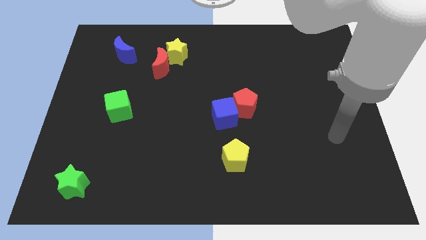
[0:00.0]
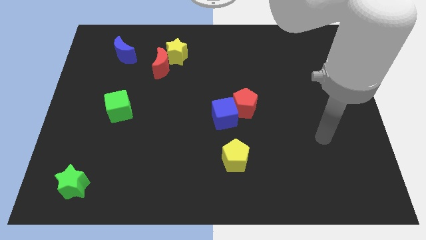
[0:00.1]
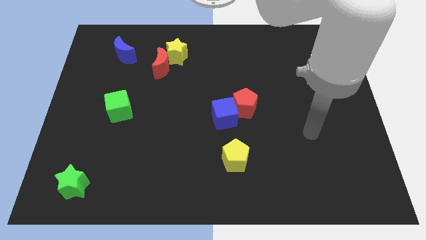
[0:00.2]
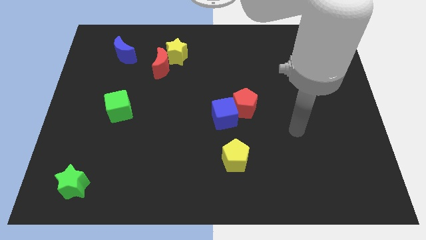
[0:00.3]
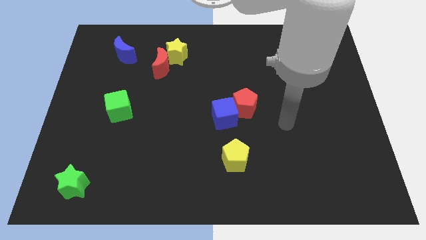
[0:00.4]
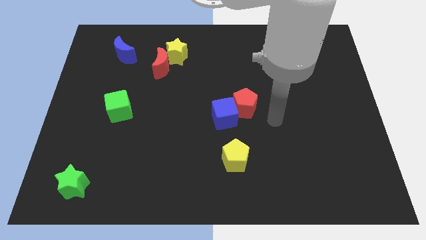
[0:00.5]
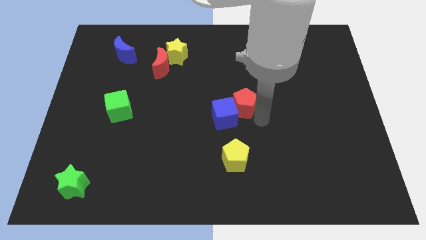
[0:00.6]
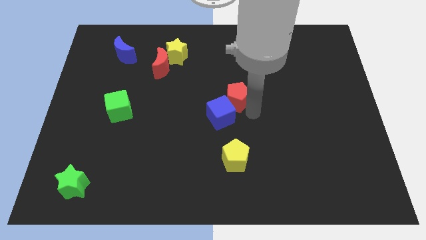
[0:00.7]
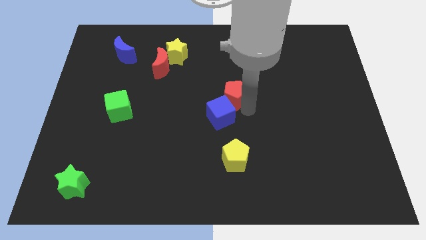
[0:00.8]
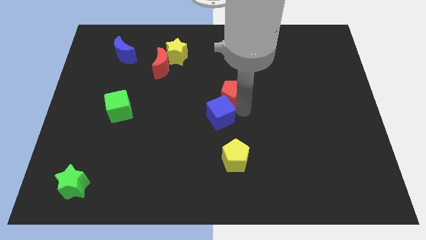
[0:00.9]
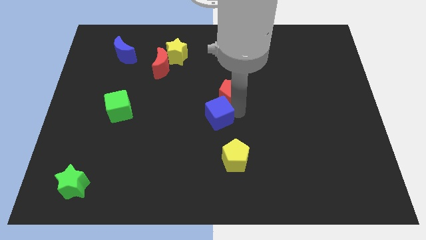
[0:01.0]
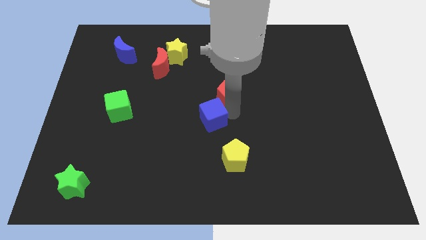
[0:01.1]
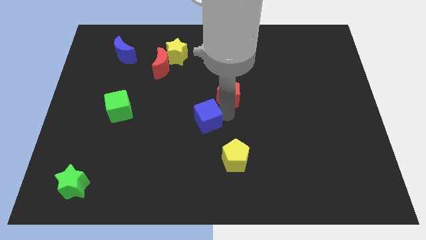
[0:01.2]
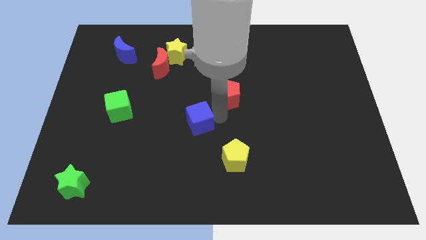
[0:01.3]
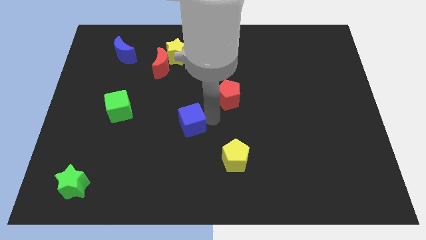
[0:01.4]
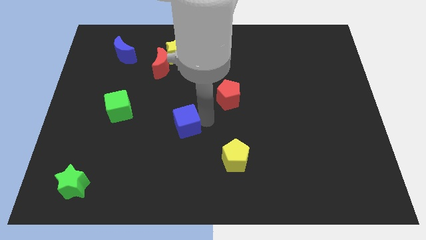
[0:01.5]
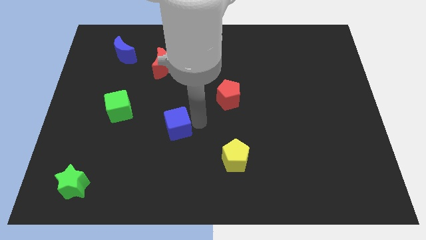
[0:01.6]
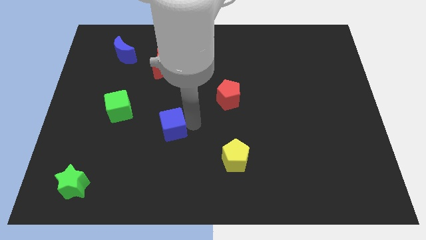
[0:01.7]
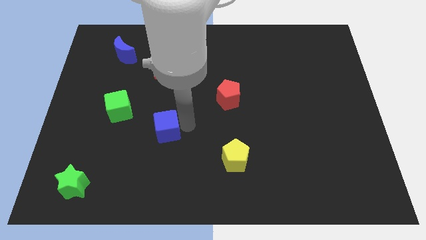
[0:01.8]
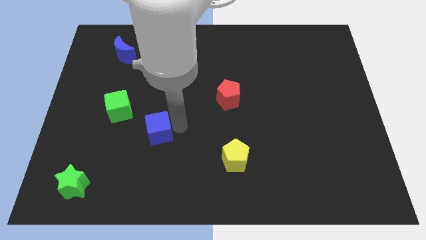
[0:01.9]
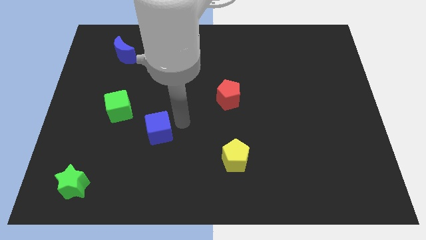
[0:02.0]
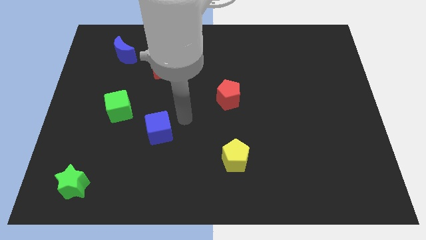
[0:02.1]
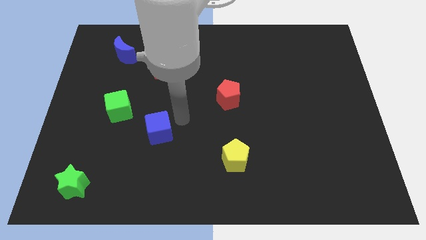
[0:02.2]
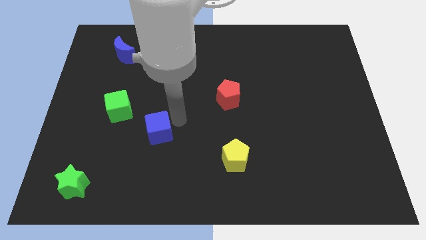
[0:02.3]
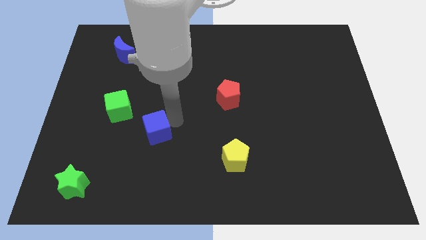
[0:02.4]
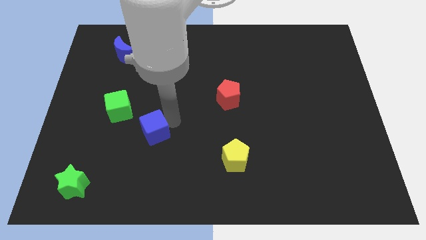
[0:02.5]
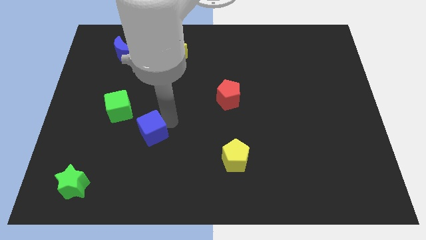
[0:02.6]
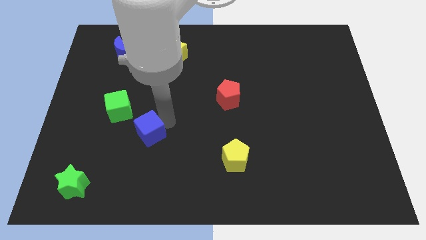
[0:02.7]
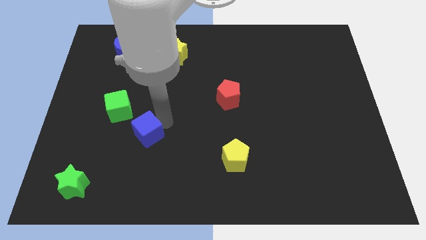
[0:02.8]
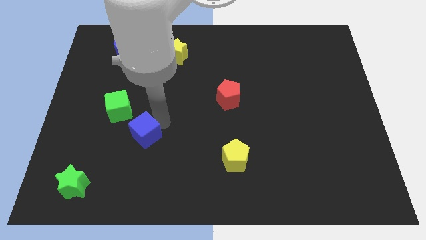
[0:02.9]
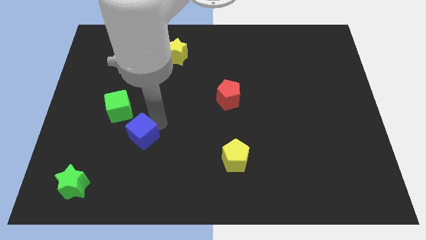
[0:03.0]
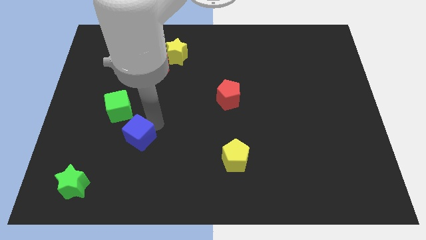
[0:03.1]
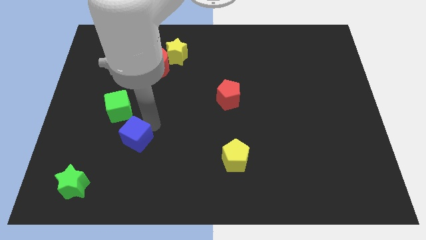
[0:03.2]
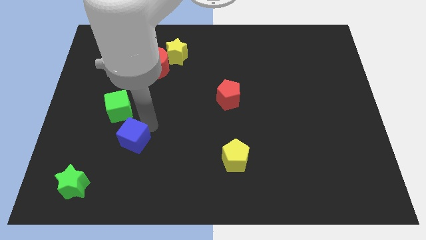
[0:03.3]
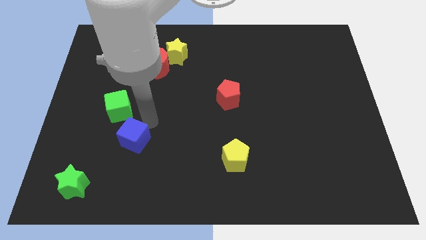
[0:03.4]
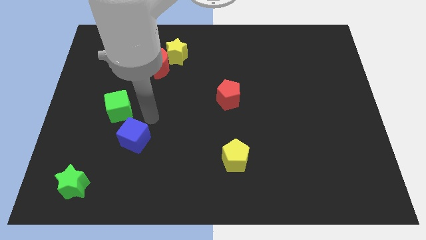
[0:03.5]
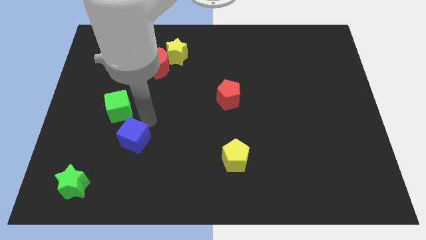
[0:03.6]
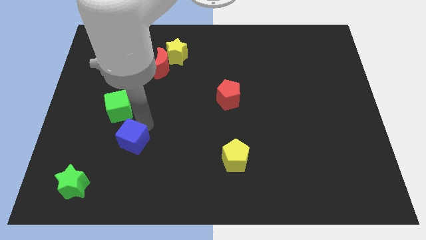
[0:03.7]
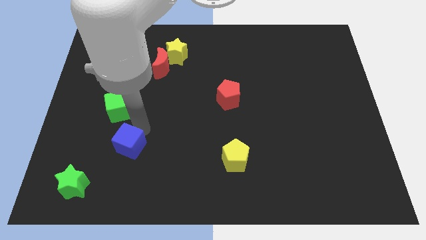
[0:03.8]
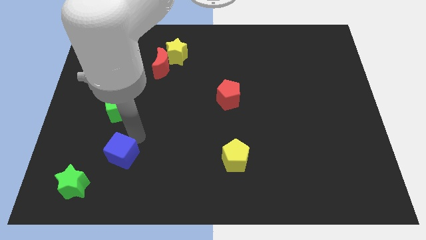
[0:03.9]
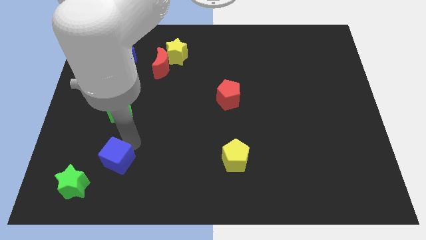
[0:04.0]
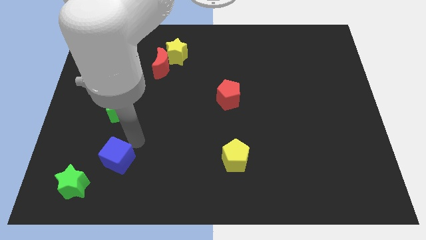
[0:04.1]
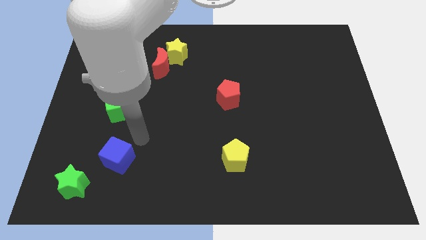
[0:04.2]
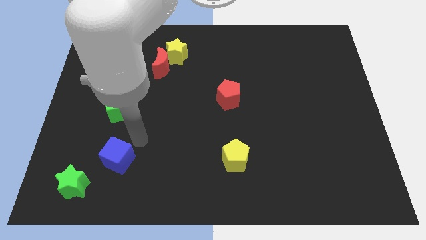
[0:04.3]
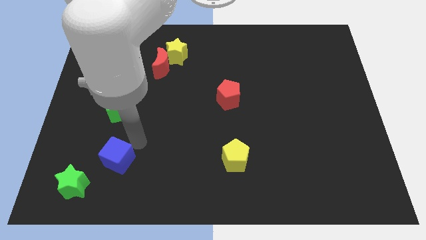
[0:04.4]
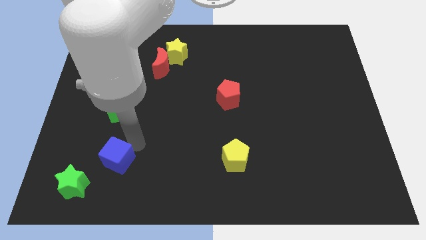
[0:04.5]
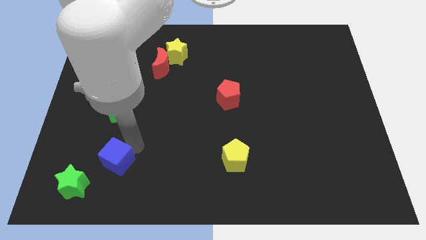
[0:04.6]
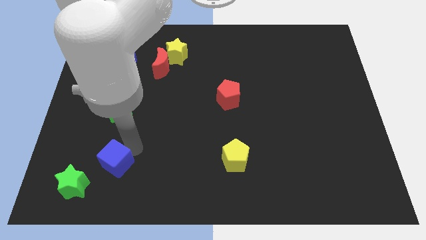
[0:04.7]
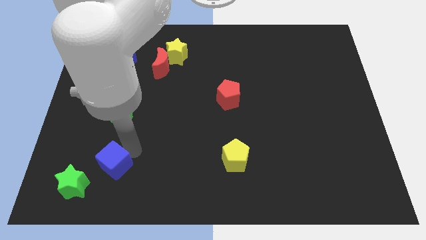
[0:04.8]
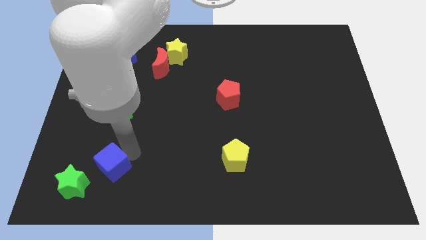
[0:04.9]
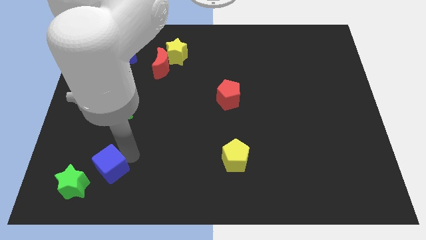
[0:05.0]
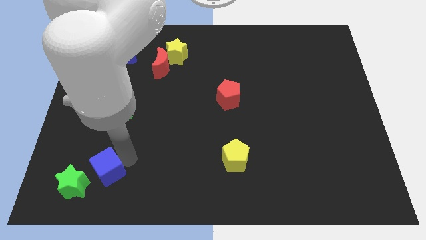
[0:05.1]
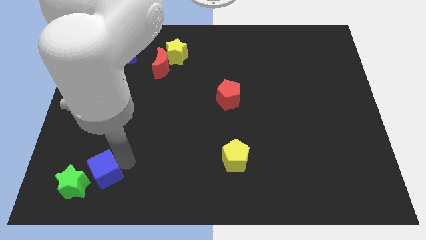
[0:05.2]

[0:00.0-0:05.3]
slide the blue cube towards the green star

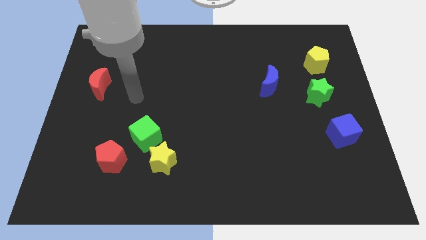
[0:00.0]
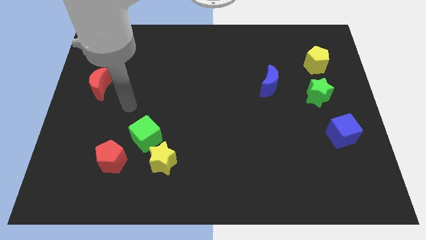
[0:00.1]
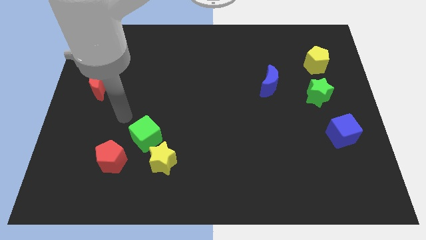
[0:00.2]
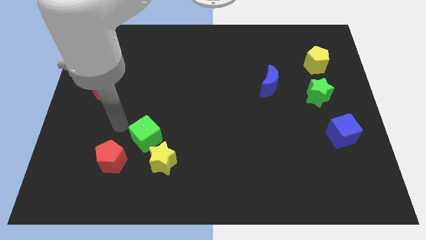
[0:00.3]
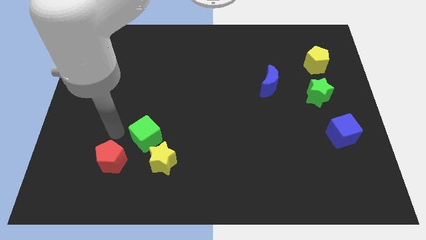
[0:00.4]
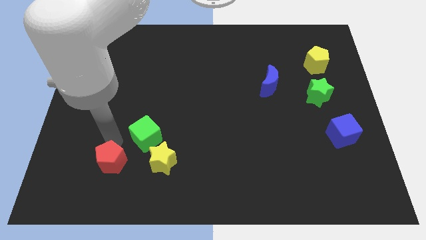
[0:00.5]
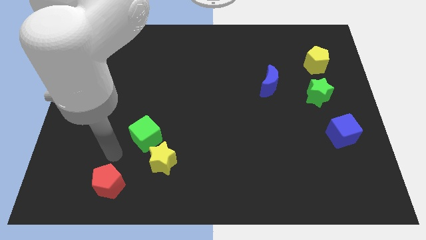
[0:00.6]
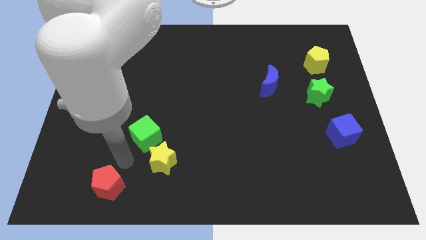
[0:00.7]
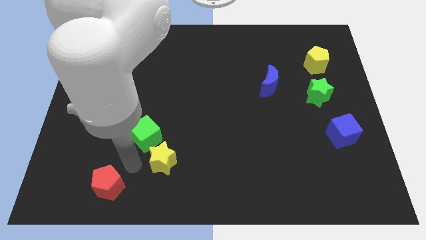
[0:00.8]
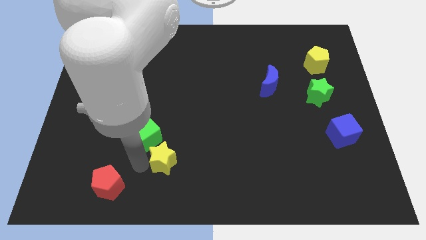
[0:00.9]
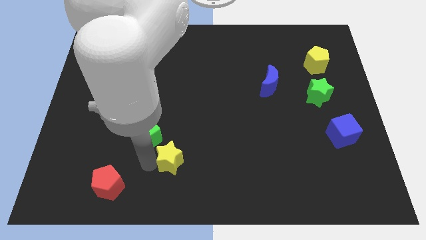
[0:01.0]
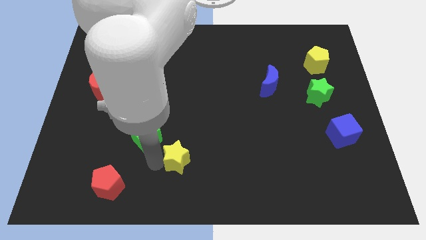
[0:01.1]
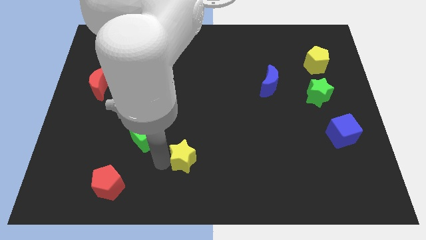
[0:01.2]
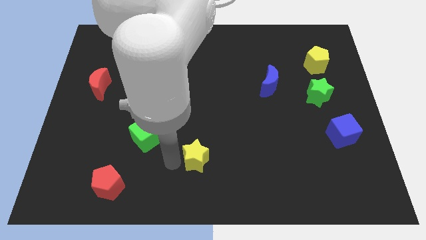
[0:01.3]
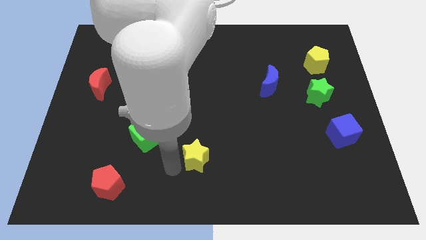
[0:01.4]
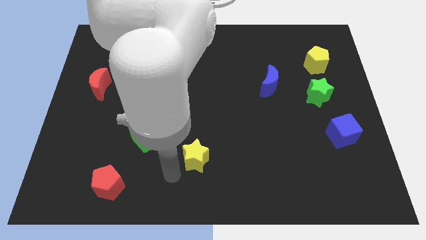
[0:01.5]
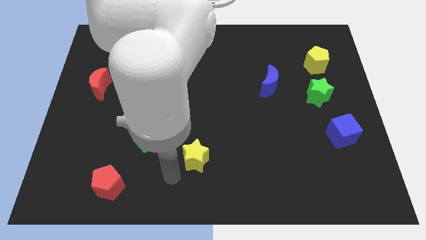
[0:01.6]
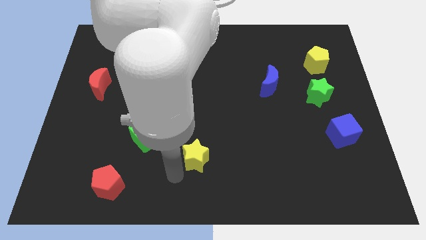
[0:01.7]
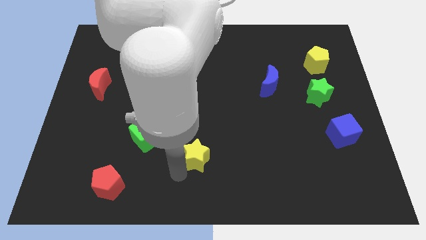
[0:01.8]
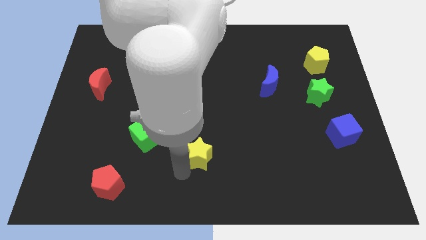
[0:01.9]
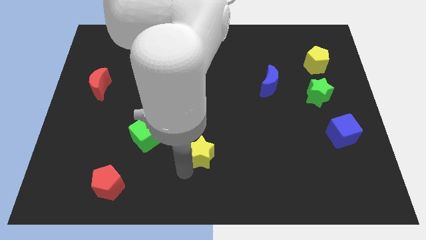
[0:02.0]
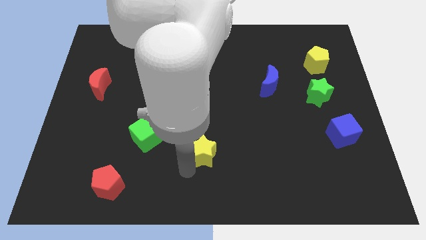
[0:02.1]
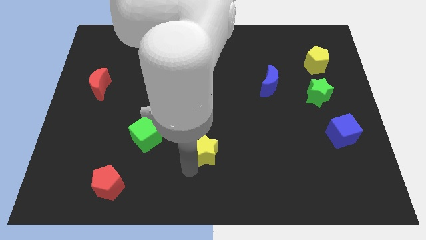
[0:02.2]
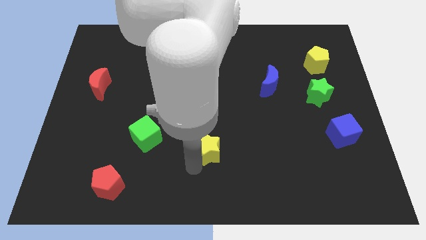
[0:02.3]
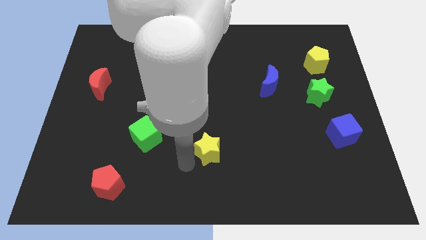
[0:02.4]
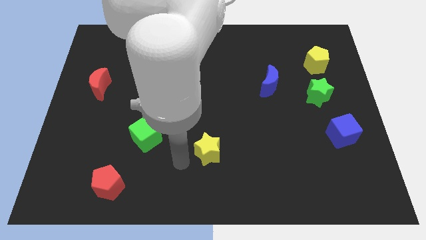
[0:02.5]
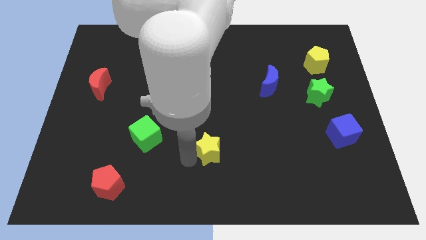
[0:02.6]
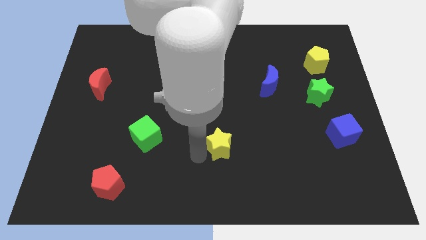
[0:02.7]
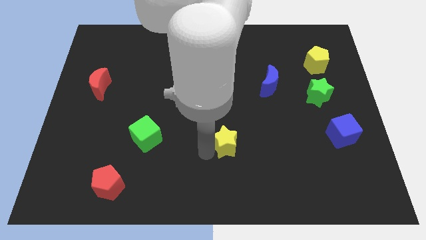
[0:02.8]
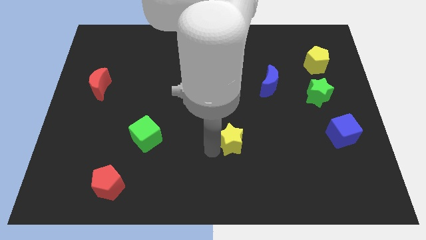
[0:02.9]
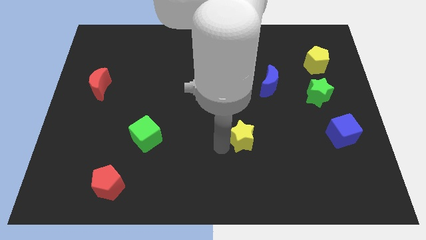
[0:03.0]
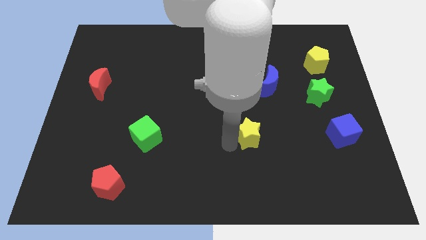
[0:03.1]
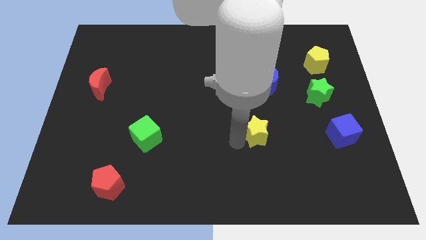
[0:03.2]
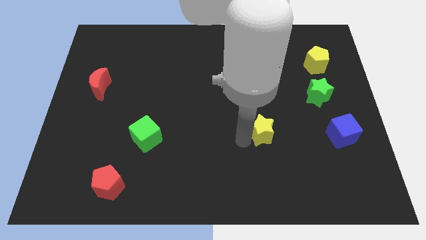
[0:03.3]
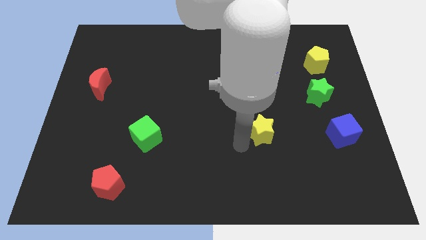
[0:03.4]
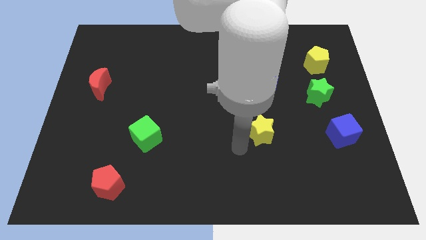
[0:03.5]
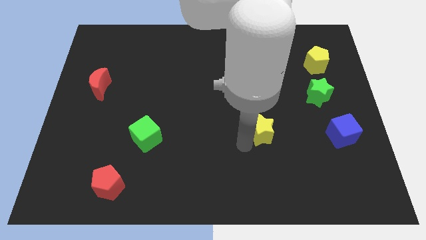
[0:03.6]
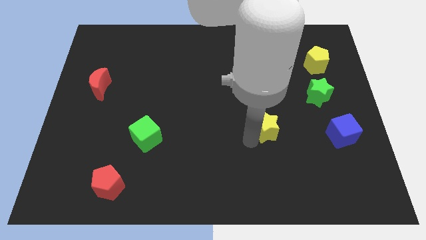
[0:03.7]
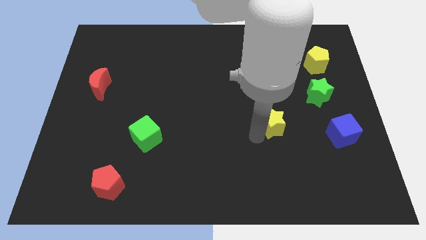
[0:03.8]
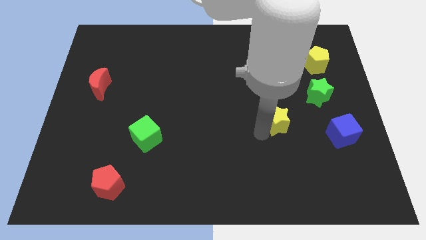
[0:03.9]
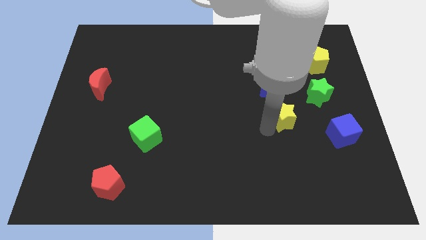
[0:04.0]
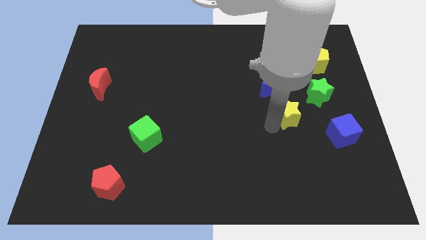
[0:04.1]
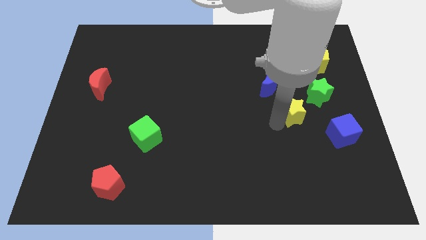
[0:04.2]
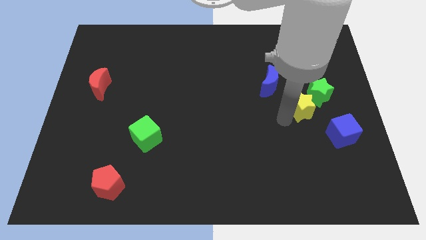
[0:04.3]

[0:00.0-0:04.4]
slide the yellow star next to the green star
